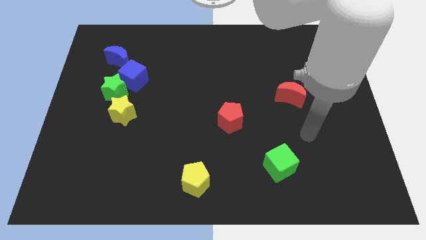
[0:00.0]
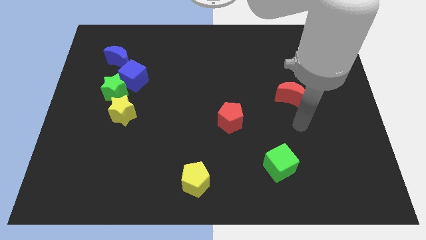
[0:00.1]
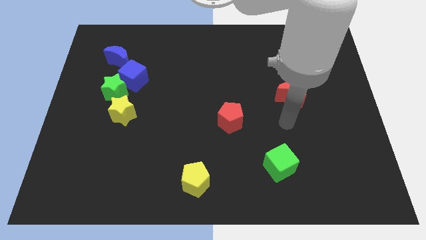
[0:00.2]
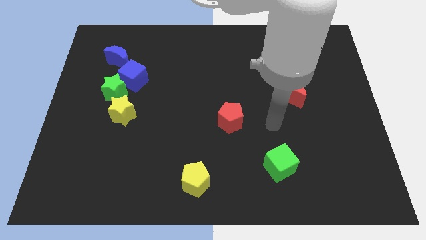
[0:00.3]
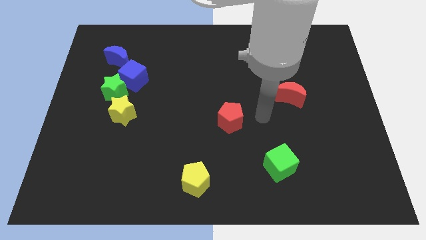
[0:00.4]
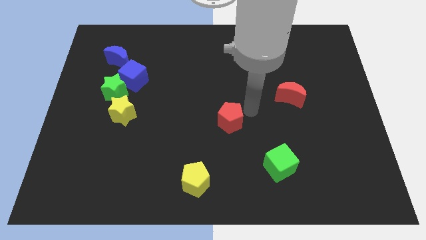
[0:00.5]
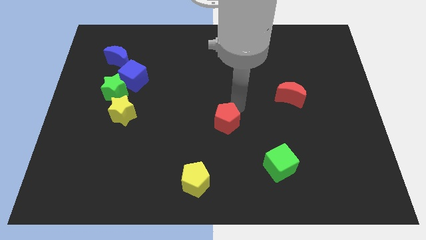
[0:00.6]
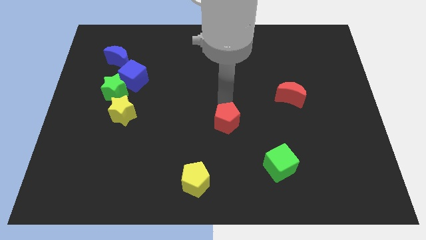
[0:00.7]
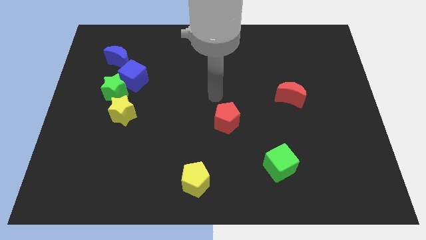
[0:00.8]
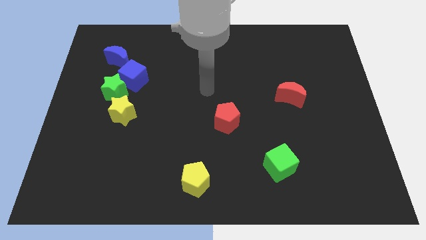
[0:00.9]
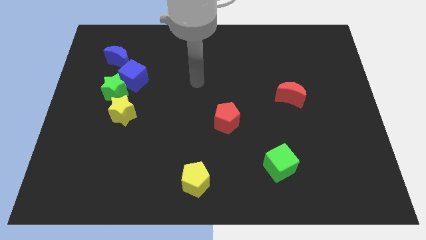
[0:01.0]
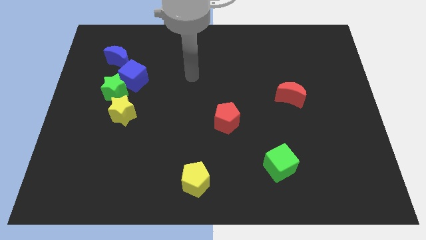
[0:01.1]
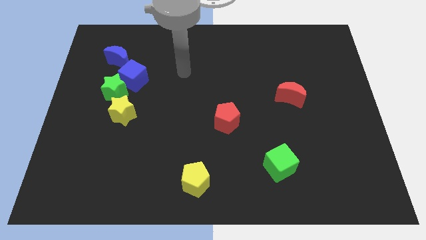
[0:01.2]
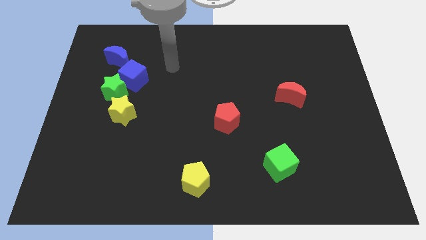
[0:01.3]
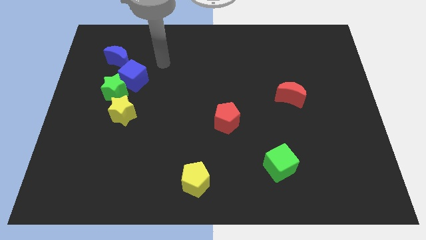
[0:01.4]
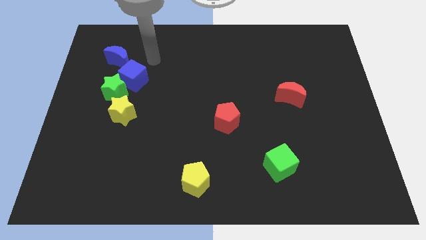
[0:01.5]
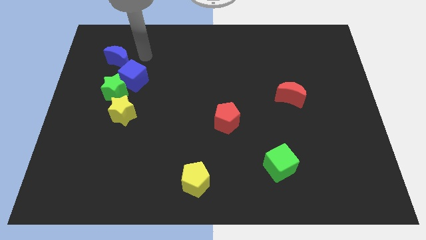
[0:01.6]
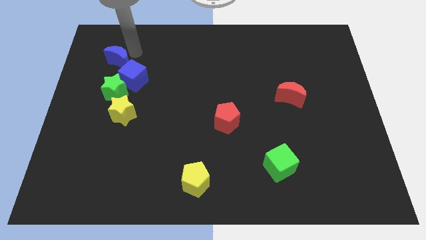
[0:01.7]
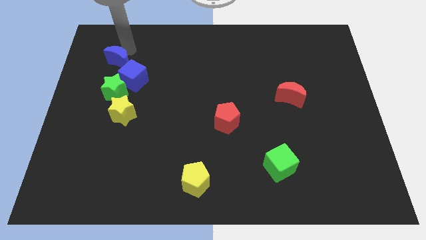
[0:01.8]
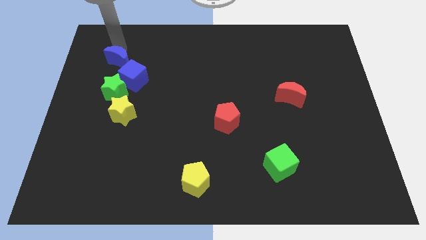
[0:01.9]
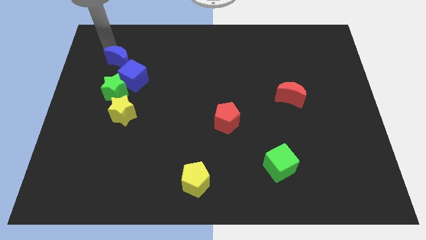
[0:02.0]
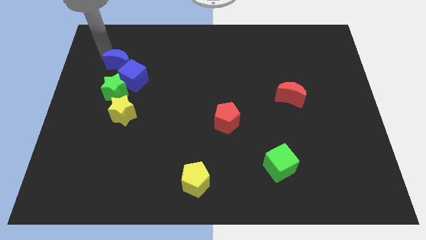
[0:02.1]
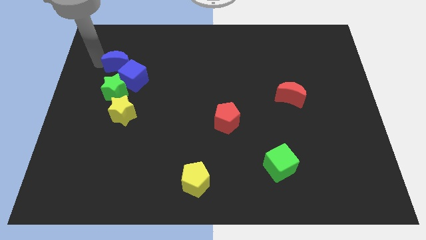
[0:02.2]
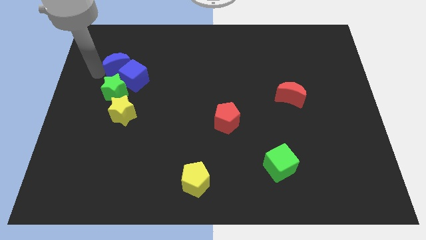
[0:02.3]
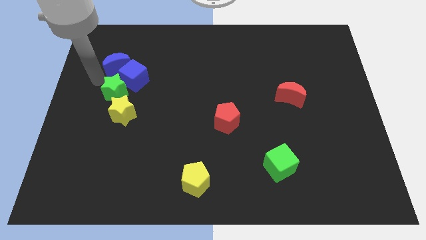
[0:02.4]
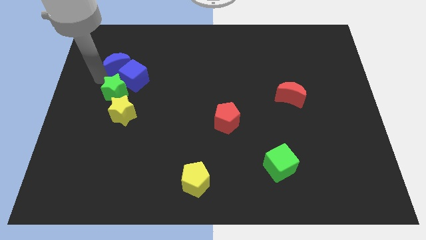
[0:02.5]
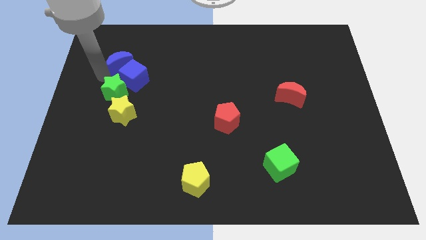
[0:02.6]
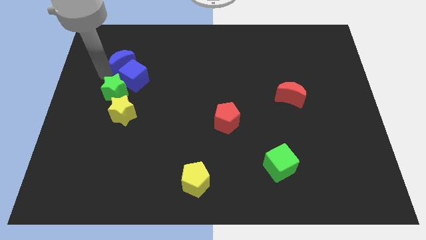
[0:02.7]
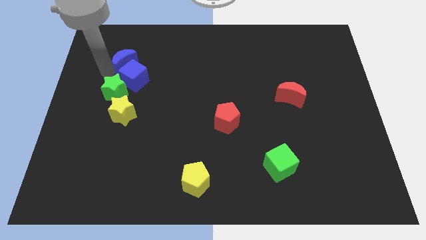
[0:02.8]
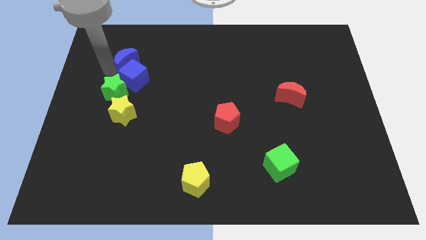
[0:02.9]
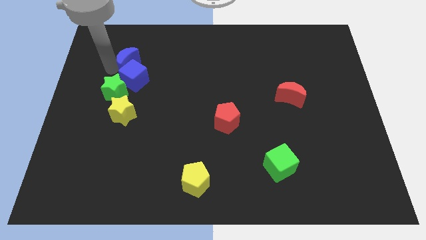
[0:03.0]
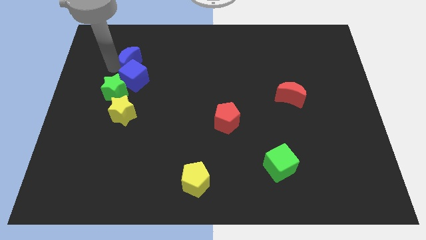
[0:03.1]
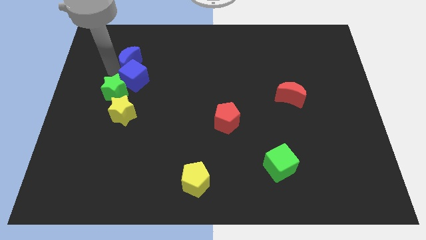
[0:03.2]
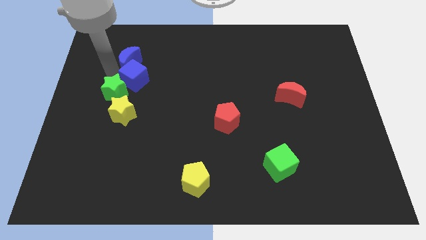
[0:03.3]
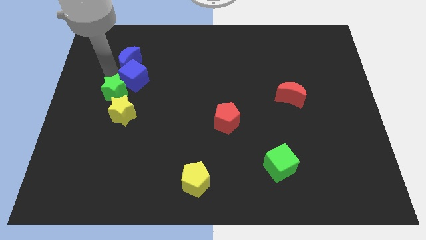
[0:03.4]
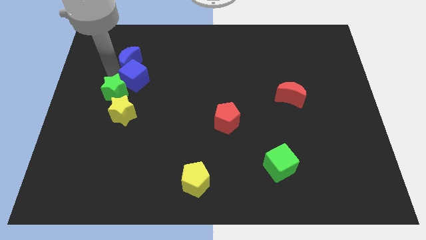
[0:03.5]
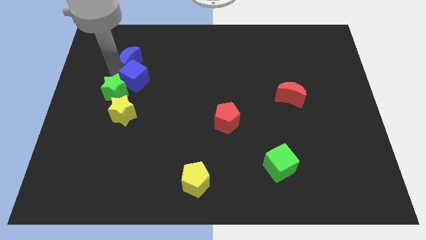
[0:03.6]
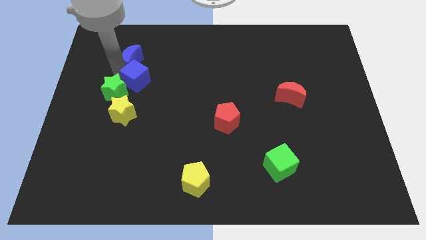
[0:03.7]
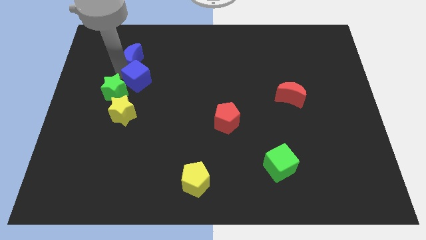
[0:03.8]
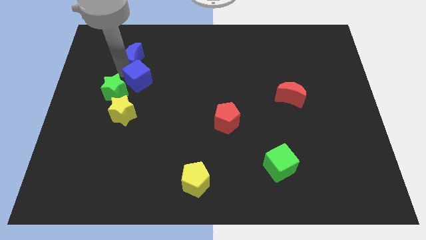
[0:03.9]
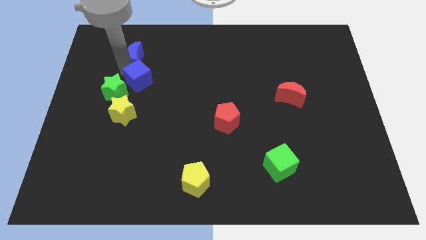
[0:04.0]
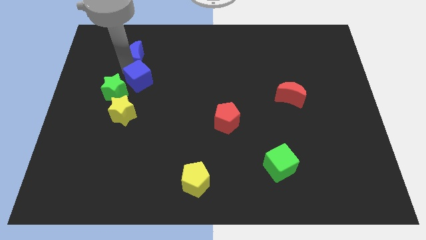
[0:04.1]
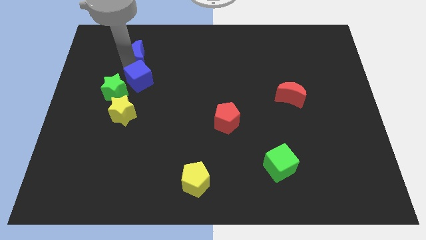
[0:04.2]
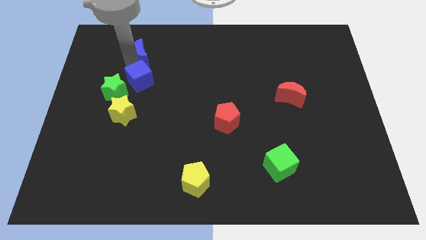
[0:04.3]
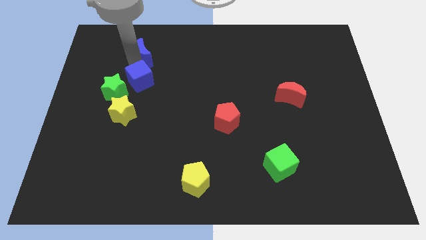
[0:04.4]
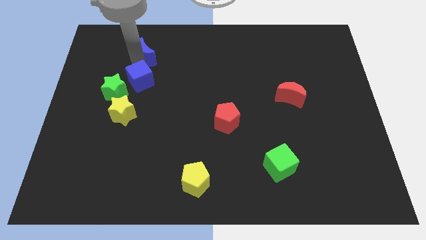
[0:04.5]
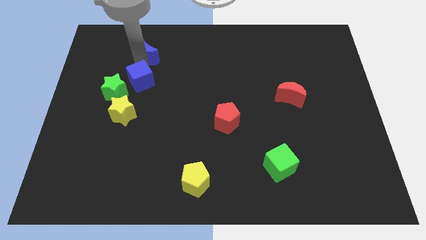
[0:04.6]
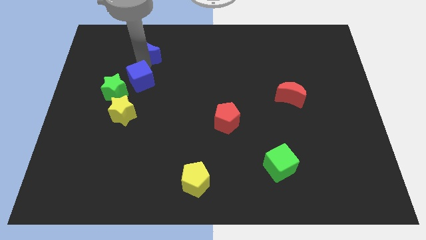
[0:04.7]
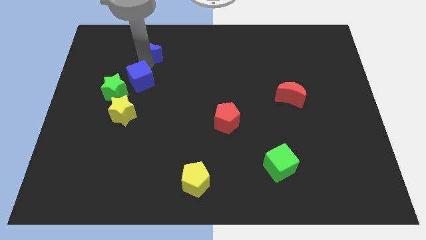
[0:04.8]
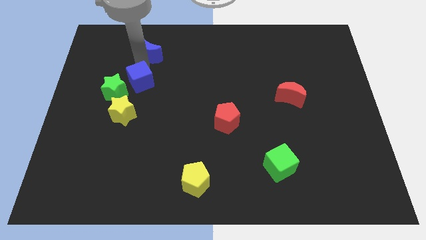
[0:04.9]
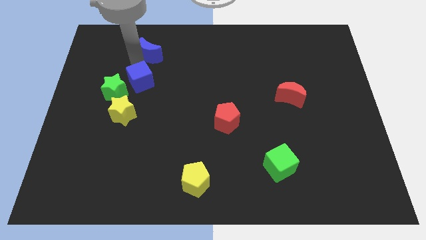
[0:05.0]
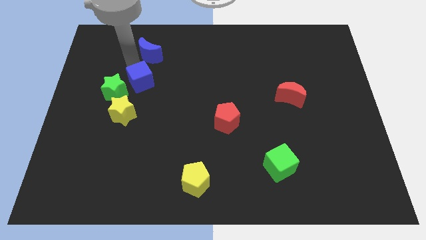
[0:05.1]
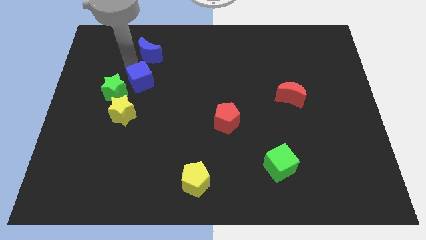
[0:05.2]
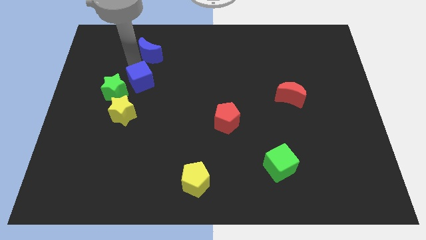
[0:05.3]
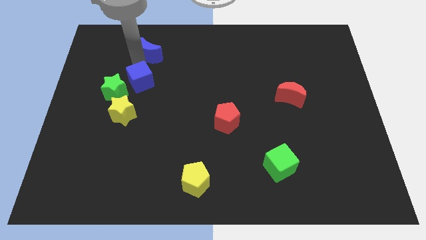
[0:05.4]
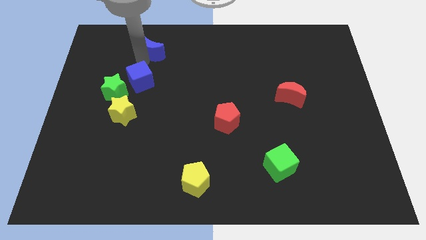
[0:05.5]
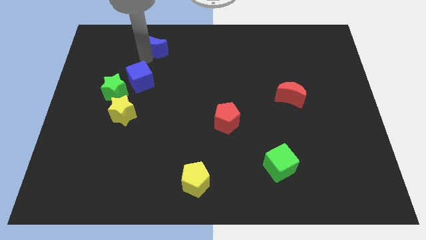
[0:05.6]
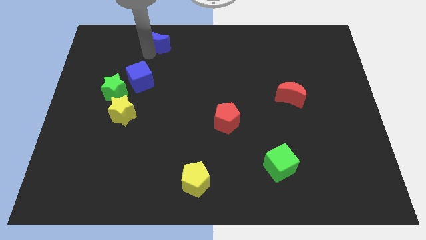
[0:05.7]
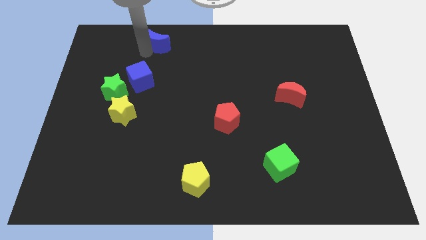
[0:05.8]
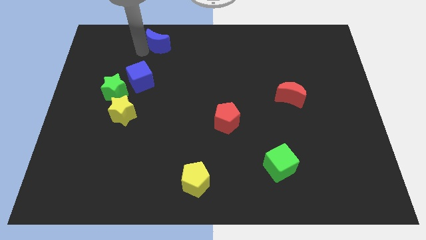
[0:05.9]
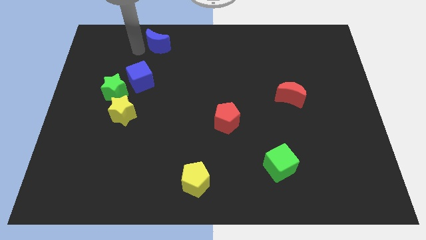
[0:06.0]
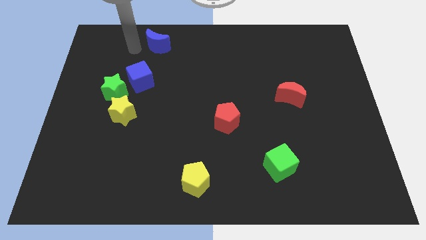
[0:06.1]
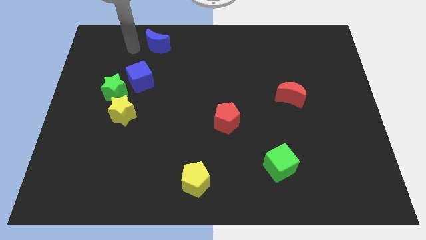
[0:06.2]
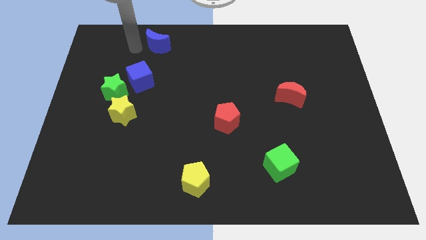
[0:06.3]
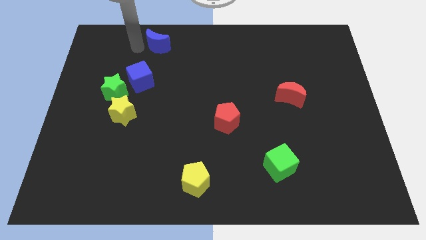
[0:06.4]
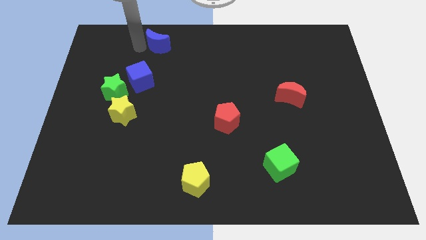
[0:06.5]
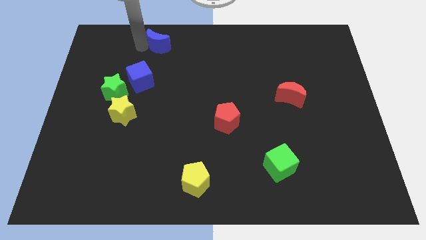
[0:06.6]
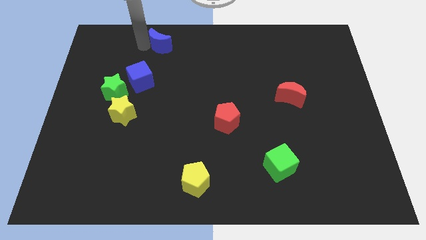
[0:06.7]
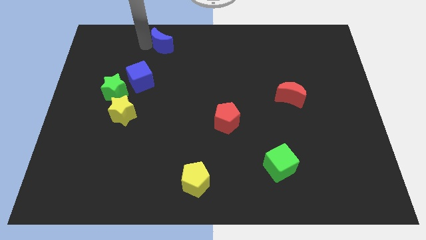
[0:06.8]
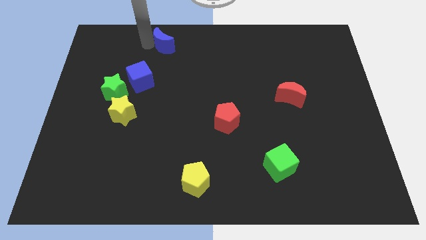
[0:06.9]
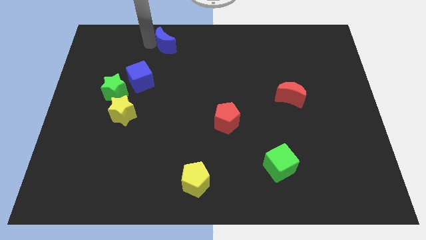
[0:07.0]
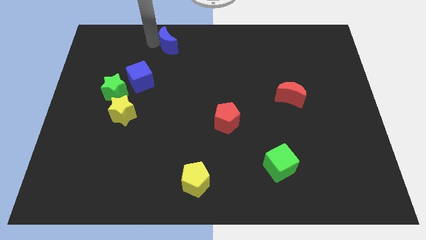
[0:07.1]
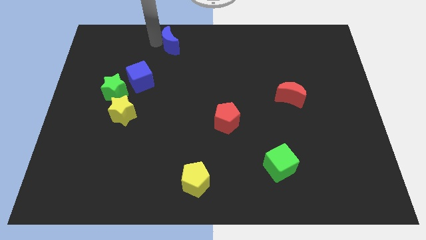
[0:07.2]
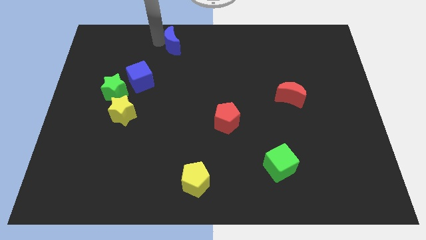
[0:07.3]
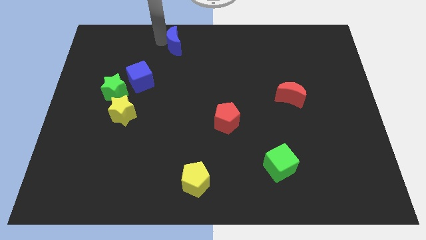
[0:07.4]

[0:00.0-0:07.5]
slide the blue moon to the top side
